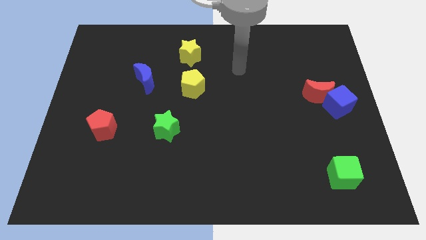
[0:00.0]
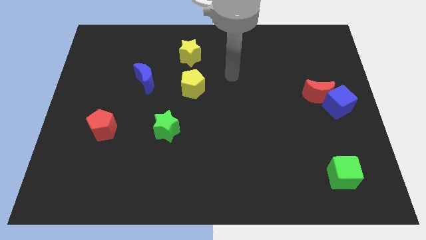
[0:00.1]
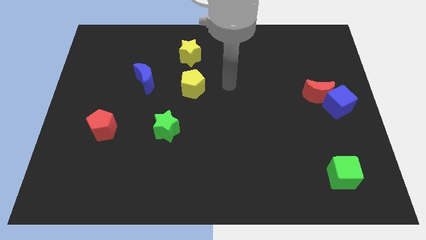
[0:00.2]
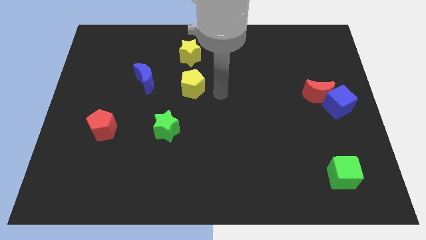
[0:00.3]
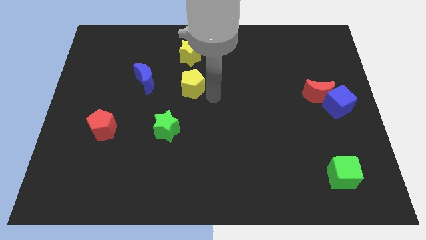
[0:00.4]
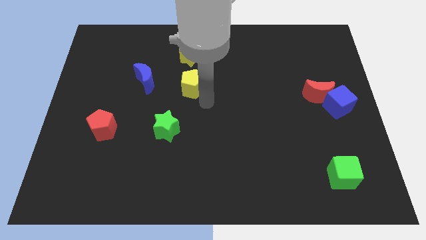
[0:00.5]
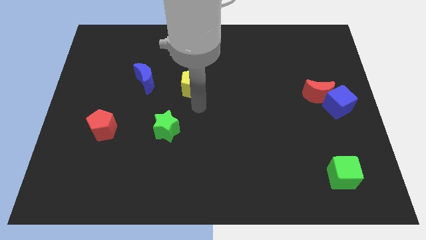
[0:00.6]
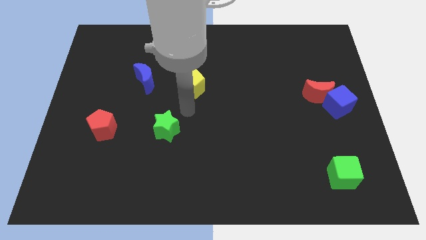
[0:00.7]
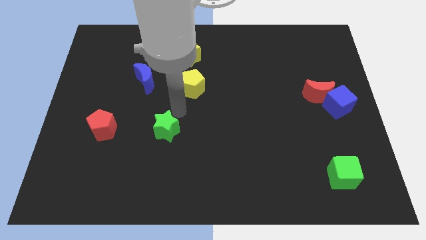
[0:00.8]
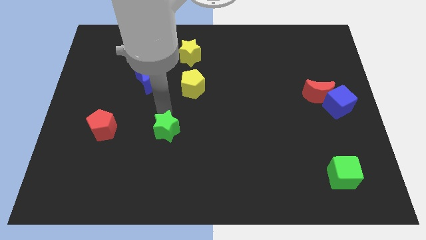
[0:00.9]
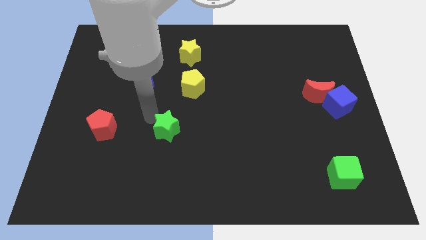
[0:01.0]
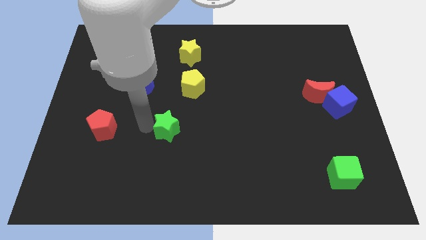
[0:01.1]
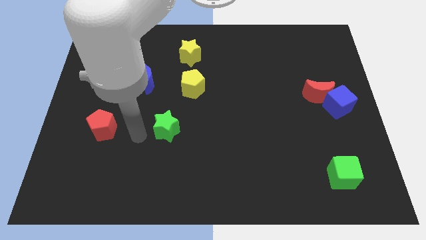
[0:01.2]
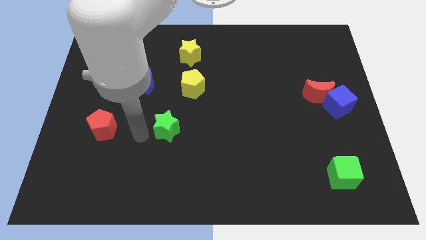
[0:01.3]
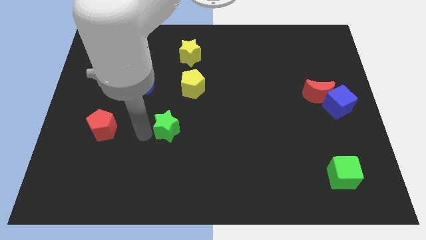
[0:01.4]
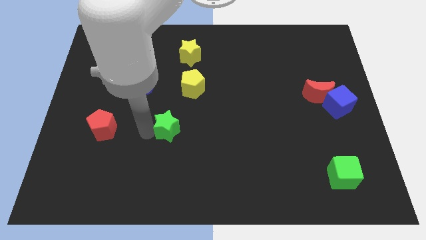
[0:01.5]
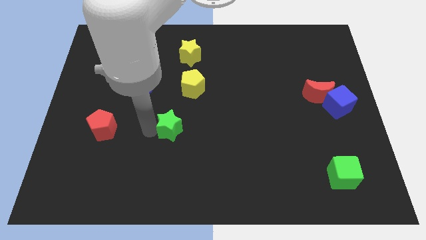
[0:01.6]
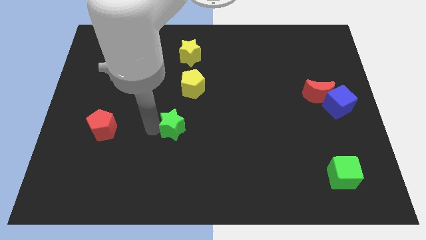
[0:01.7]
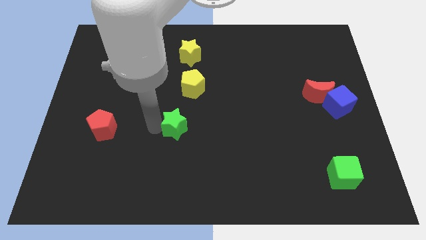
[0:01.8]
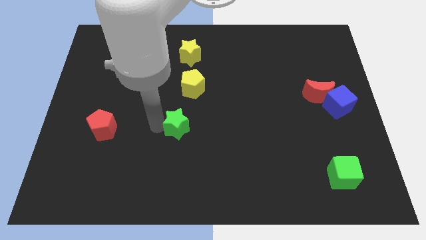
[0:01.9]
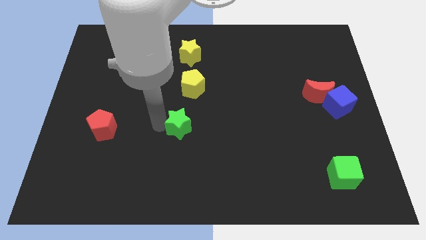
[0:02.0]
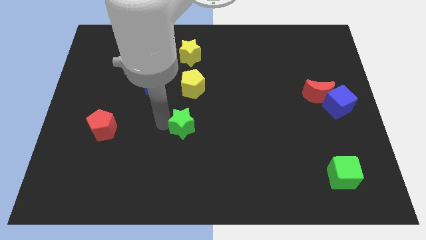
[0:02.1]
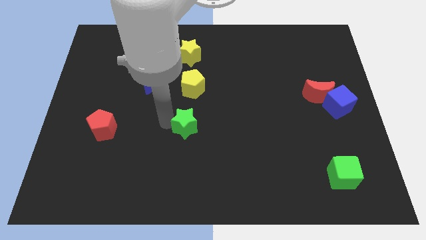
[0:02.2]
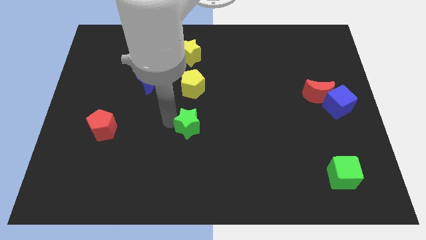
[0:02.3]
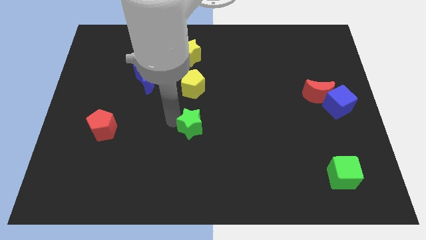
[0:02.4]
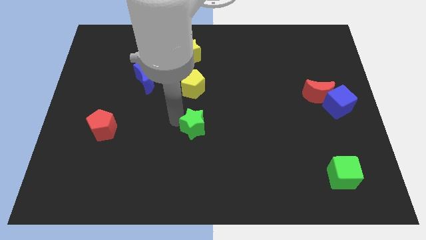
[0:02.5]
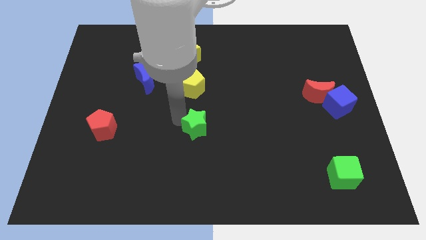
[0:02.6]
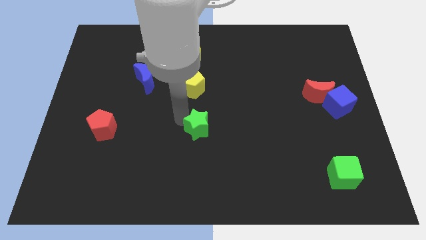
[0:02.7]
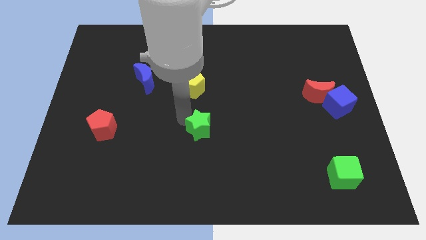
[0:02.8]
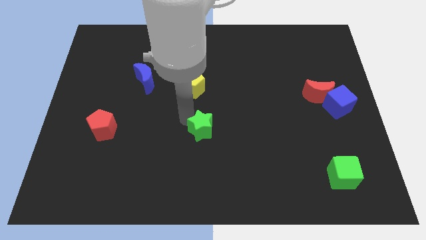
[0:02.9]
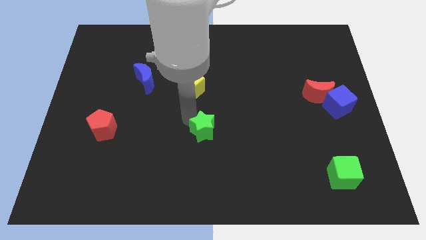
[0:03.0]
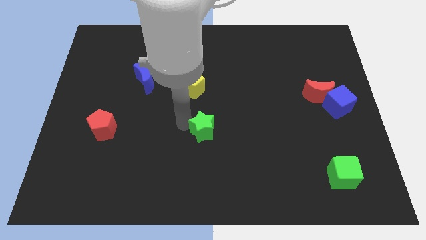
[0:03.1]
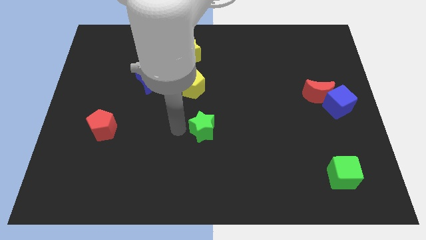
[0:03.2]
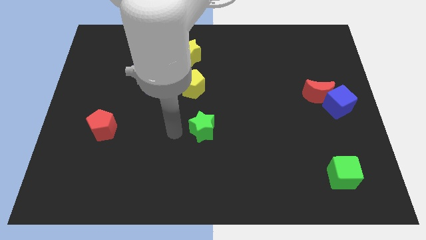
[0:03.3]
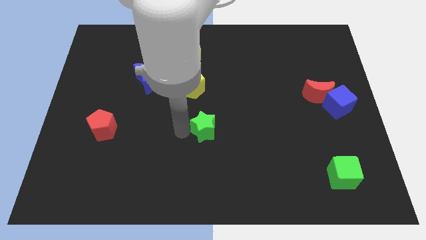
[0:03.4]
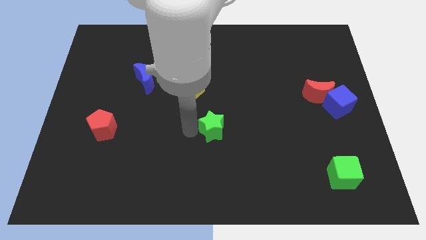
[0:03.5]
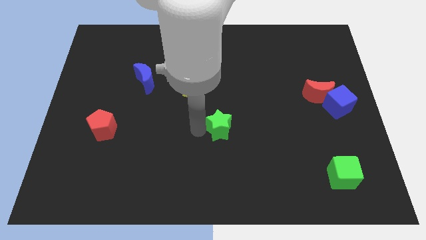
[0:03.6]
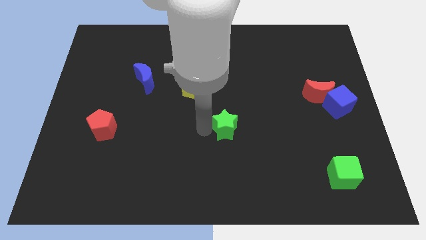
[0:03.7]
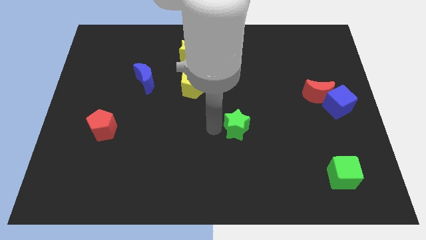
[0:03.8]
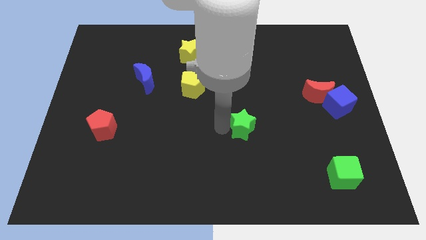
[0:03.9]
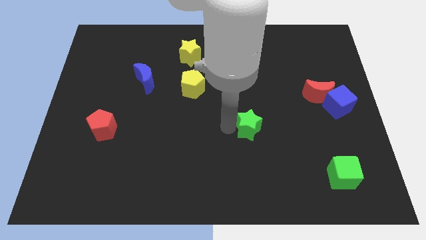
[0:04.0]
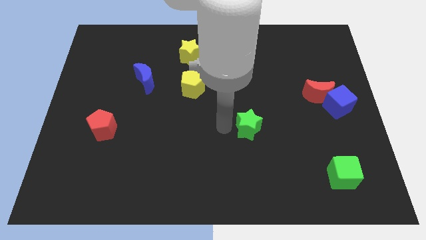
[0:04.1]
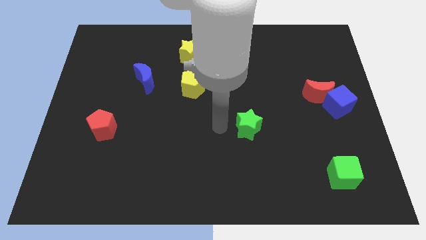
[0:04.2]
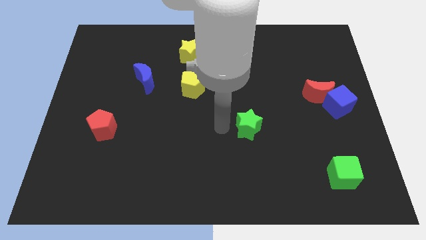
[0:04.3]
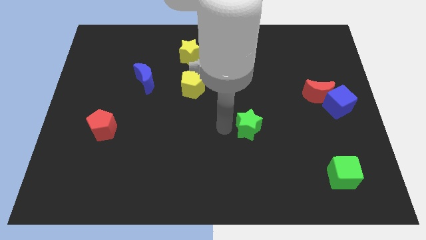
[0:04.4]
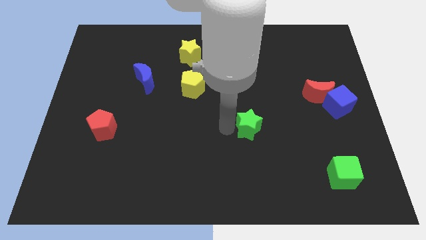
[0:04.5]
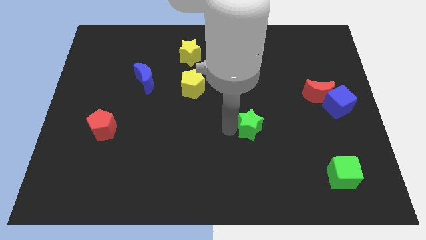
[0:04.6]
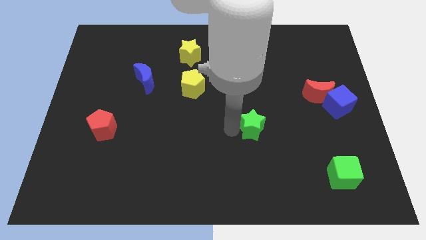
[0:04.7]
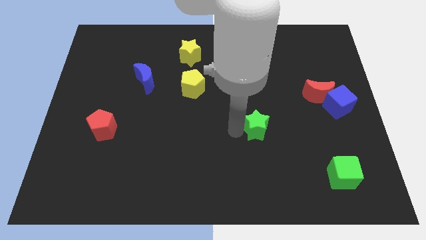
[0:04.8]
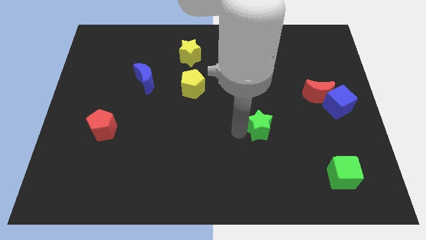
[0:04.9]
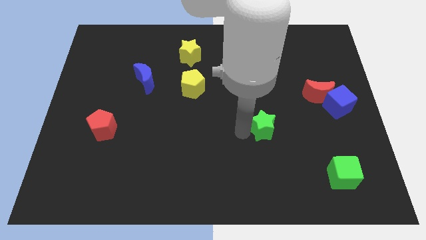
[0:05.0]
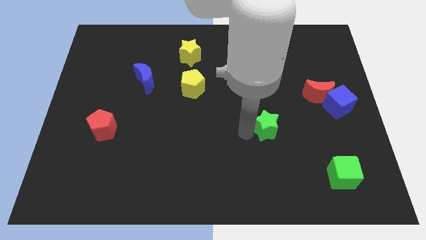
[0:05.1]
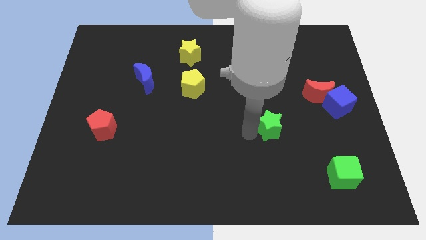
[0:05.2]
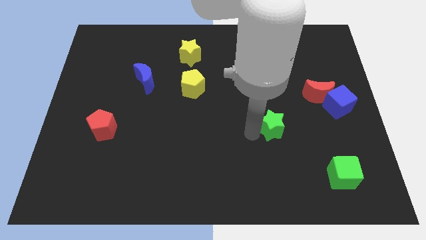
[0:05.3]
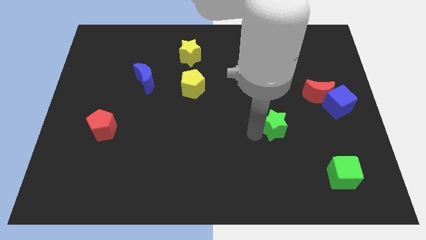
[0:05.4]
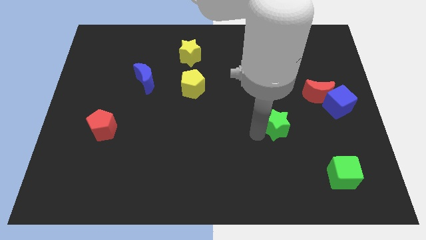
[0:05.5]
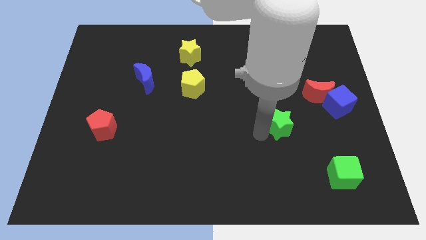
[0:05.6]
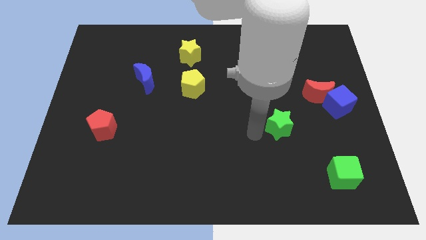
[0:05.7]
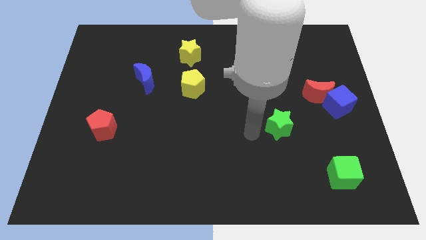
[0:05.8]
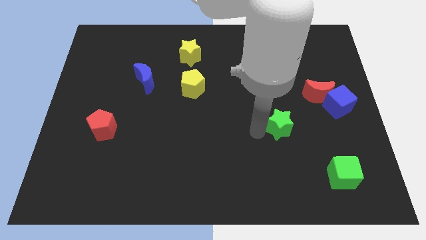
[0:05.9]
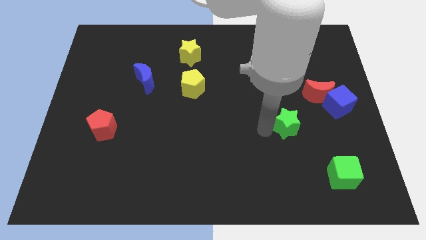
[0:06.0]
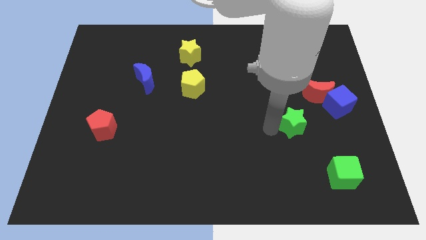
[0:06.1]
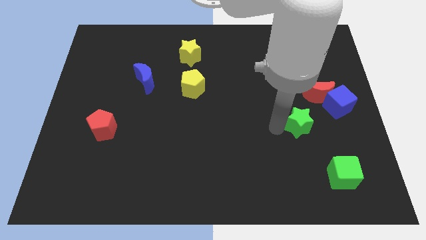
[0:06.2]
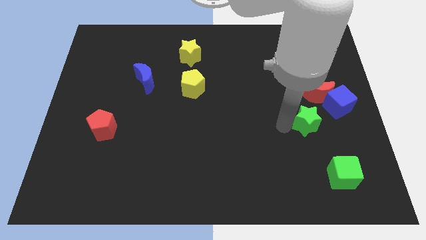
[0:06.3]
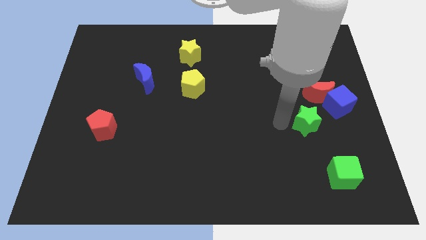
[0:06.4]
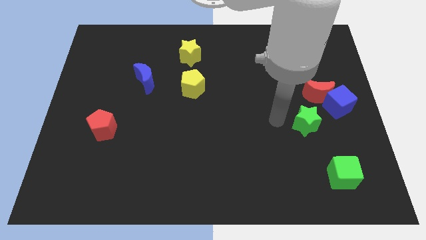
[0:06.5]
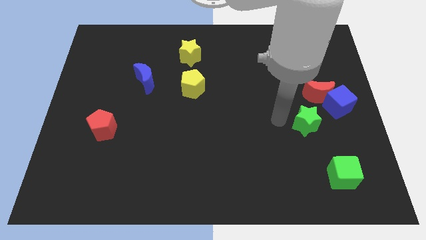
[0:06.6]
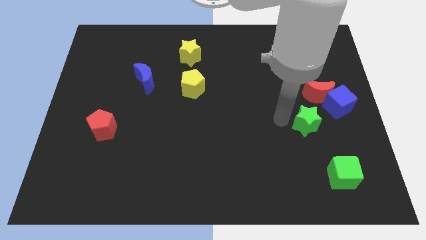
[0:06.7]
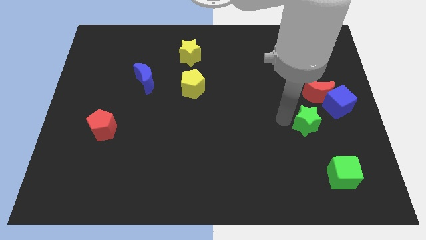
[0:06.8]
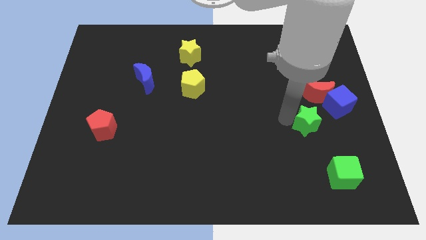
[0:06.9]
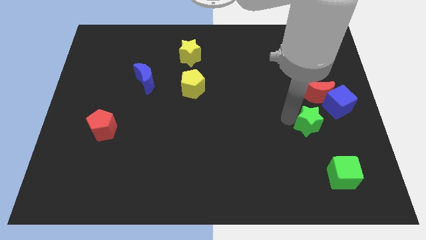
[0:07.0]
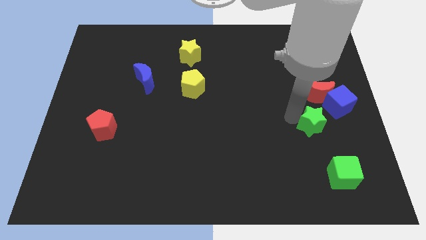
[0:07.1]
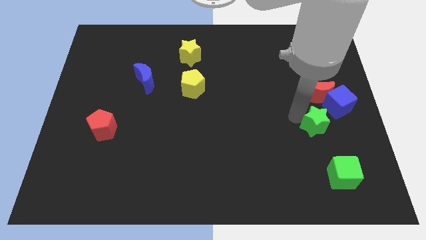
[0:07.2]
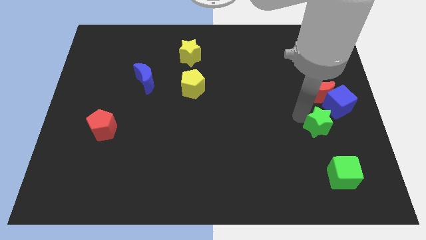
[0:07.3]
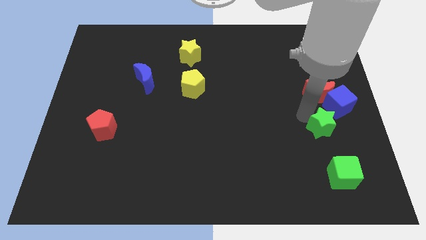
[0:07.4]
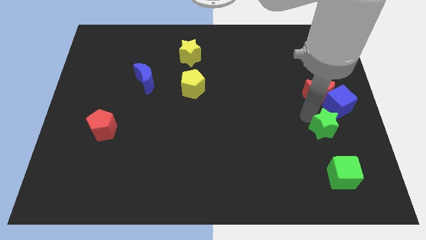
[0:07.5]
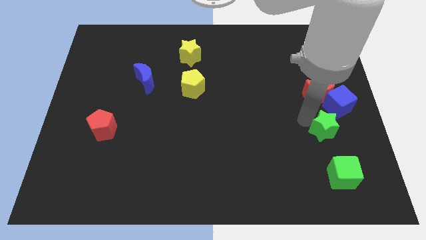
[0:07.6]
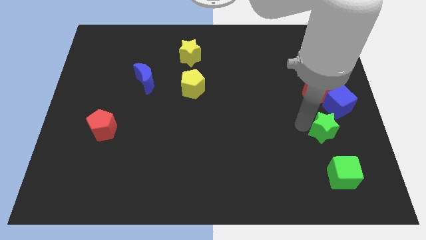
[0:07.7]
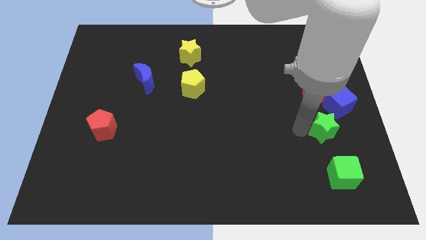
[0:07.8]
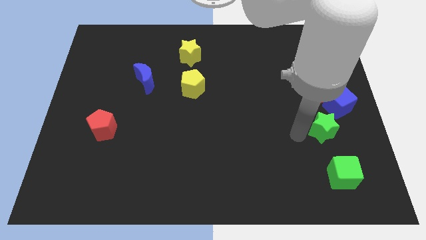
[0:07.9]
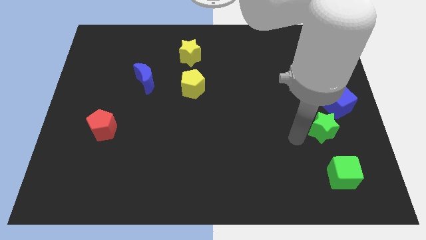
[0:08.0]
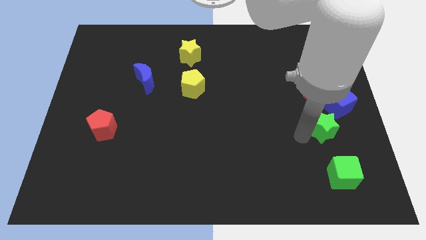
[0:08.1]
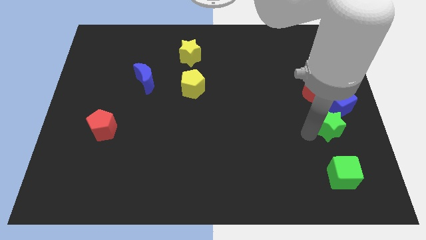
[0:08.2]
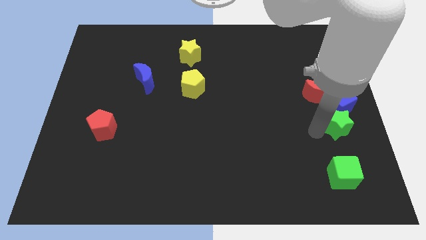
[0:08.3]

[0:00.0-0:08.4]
put the green star to the center right
